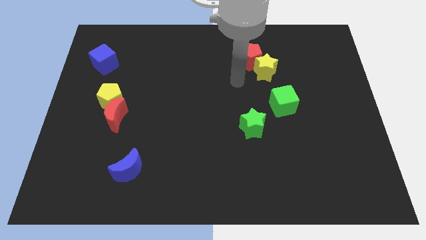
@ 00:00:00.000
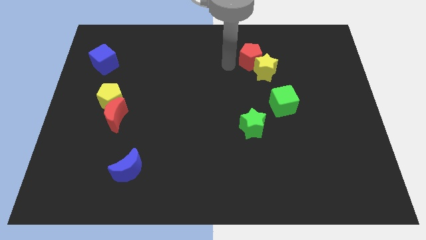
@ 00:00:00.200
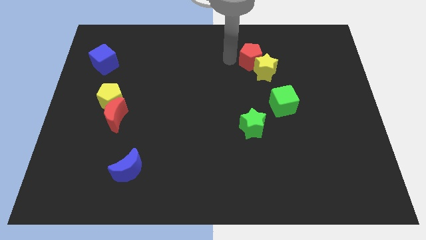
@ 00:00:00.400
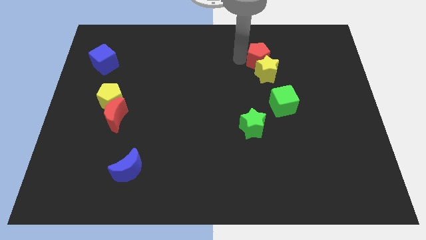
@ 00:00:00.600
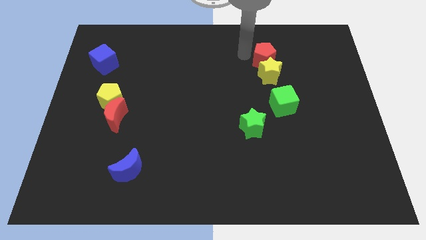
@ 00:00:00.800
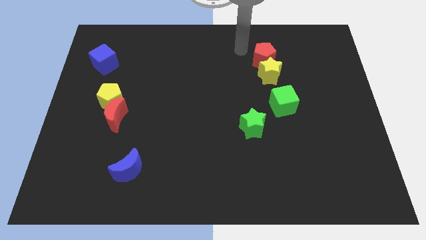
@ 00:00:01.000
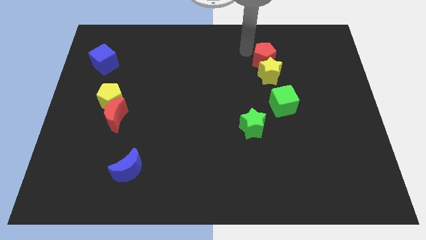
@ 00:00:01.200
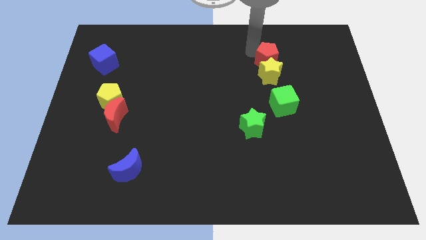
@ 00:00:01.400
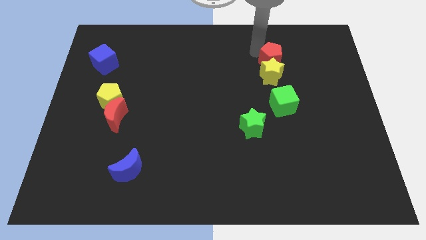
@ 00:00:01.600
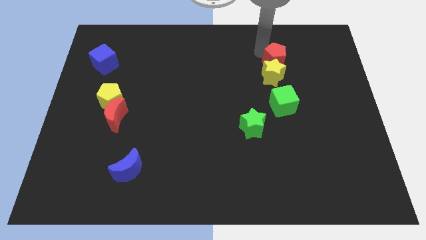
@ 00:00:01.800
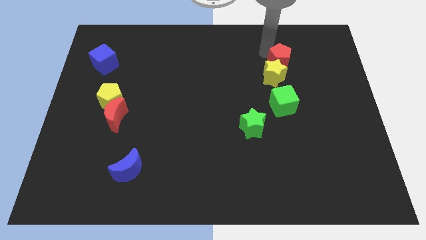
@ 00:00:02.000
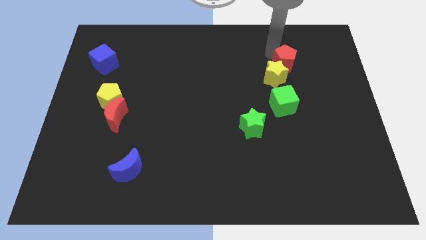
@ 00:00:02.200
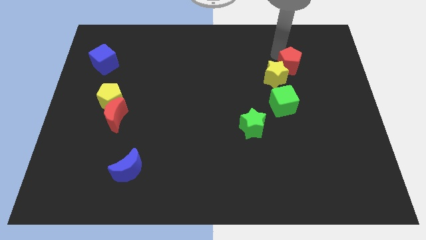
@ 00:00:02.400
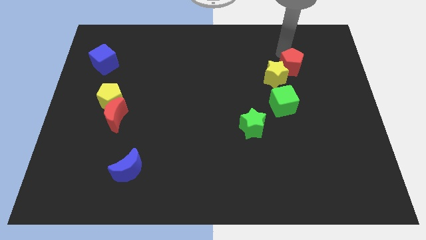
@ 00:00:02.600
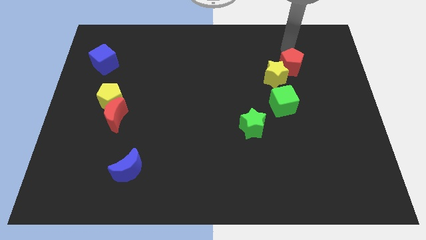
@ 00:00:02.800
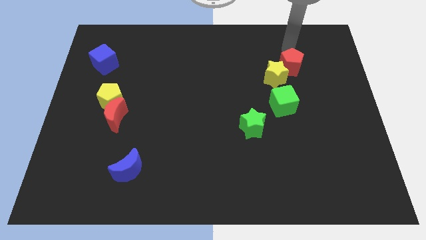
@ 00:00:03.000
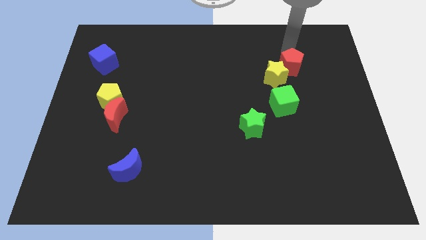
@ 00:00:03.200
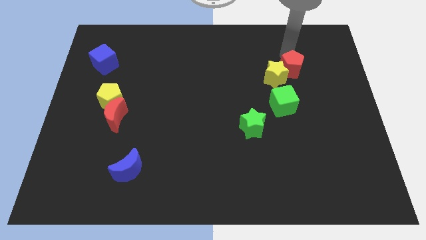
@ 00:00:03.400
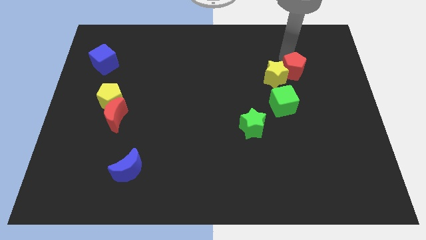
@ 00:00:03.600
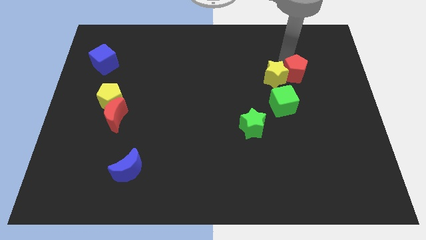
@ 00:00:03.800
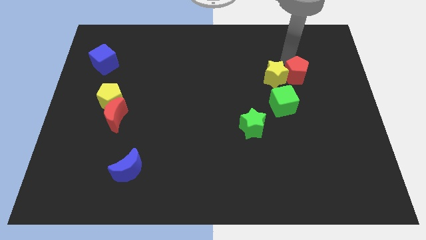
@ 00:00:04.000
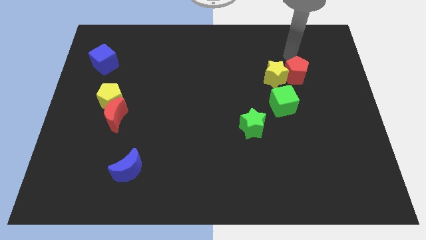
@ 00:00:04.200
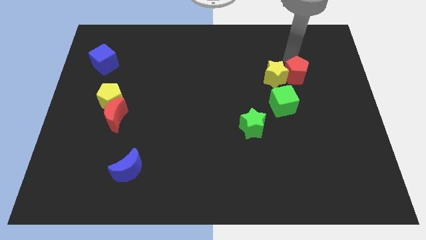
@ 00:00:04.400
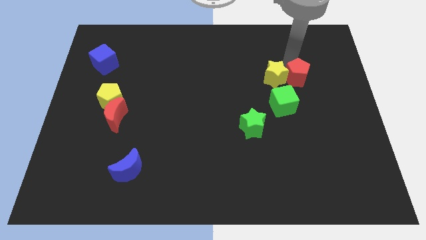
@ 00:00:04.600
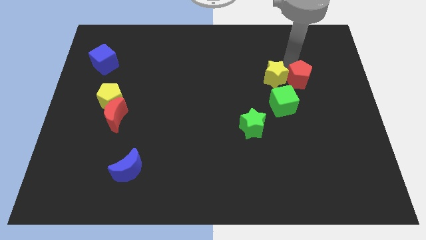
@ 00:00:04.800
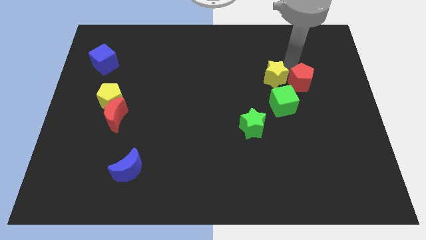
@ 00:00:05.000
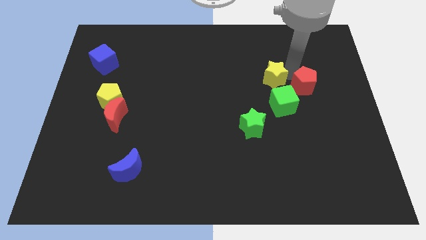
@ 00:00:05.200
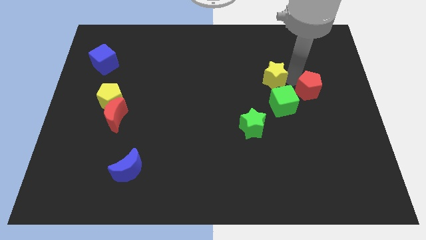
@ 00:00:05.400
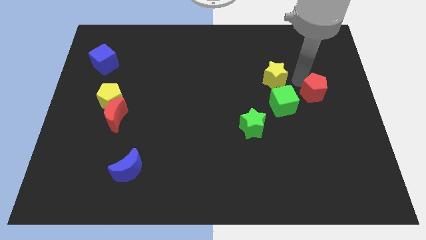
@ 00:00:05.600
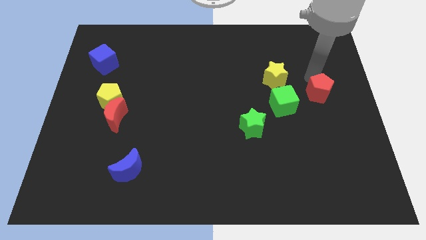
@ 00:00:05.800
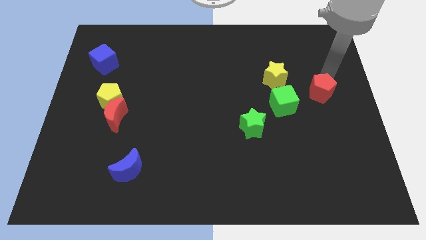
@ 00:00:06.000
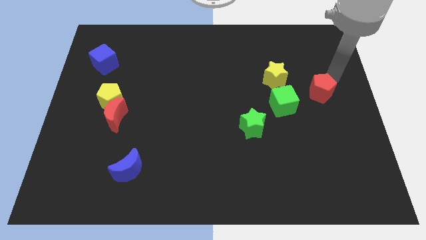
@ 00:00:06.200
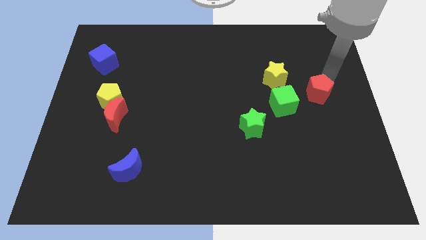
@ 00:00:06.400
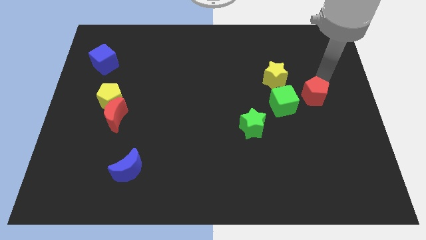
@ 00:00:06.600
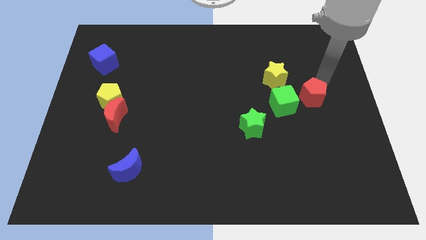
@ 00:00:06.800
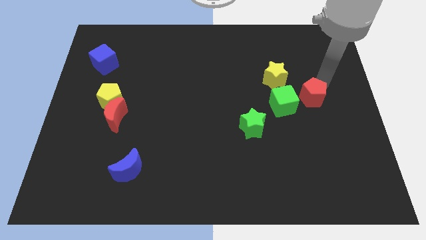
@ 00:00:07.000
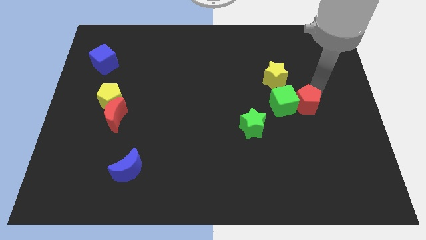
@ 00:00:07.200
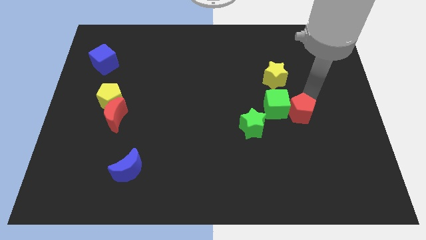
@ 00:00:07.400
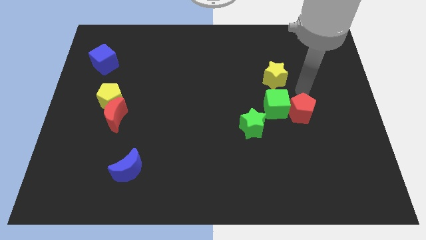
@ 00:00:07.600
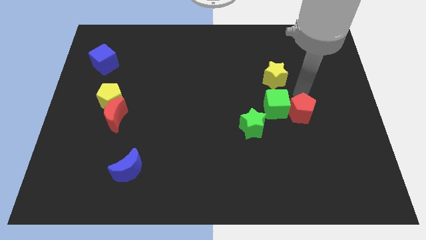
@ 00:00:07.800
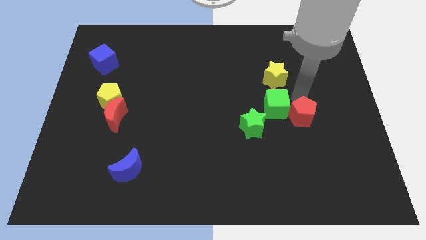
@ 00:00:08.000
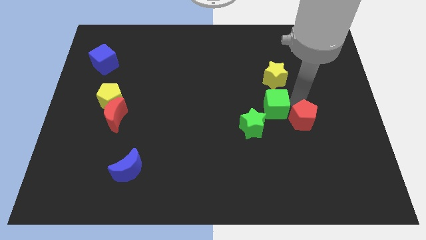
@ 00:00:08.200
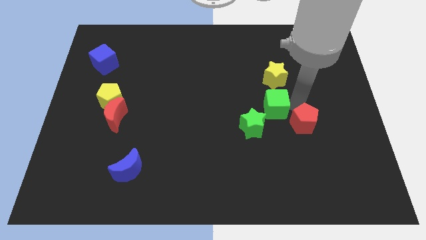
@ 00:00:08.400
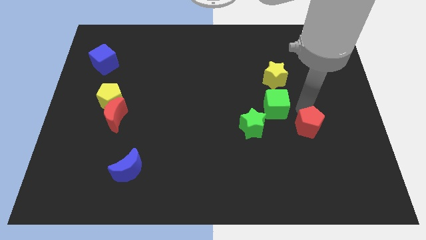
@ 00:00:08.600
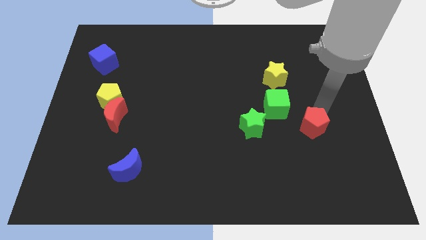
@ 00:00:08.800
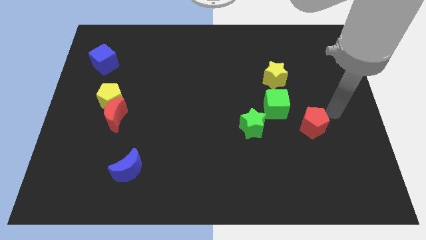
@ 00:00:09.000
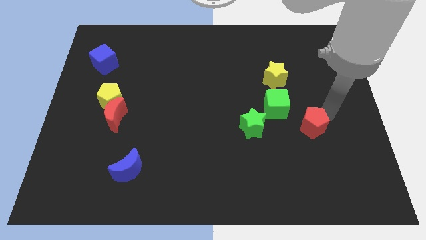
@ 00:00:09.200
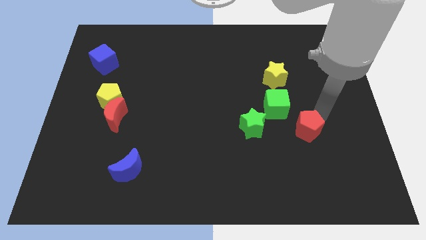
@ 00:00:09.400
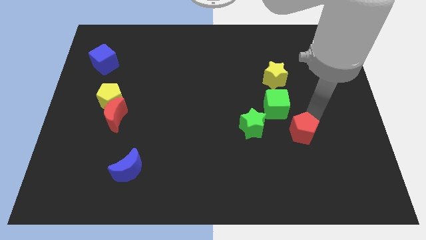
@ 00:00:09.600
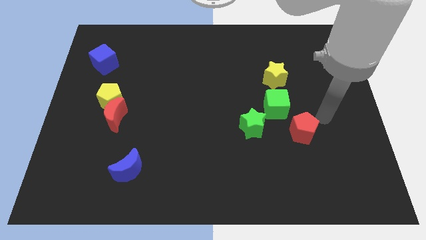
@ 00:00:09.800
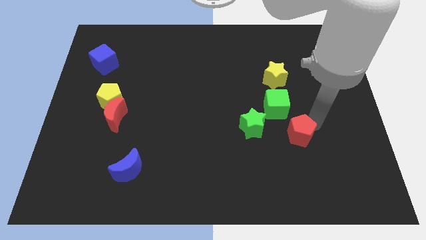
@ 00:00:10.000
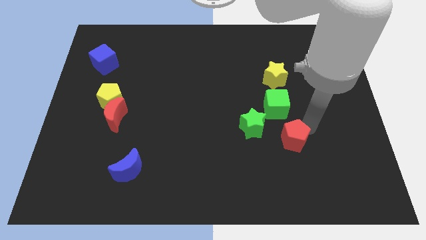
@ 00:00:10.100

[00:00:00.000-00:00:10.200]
push the red pentagon to the bottom right of the green star

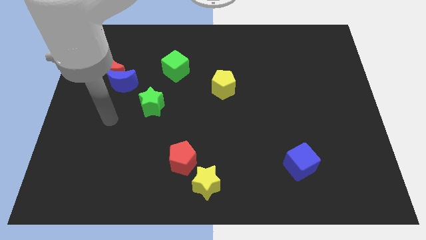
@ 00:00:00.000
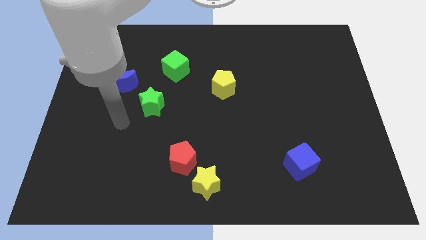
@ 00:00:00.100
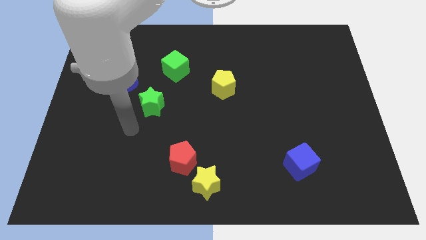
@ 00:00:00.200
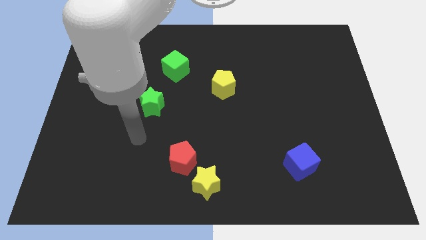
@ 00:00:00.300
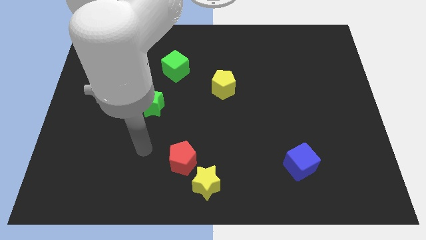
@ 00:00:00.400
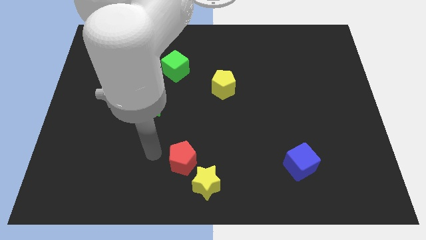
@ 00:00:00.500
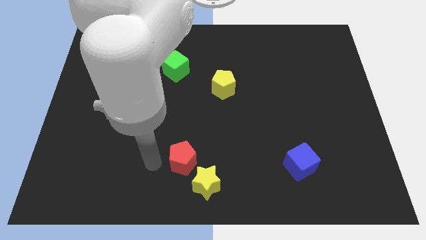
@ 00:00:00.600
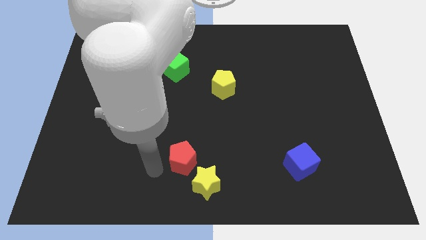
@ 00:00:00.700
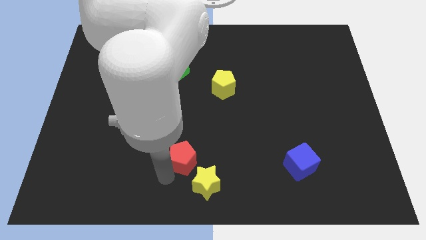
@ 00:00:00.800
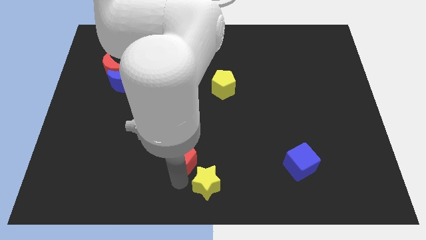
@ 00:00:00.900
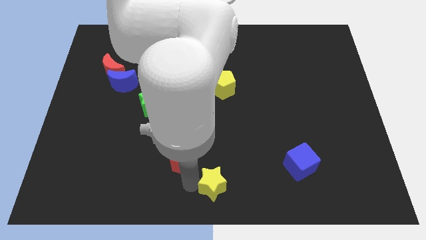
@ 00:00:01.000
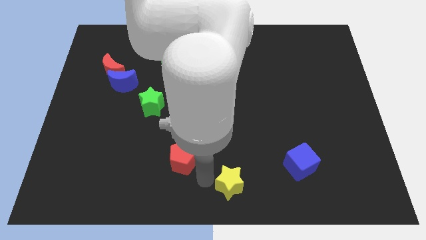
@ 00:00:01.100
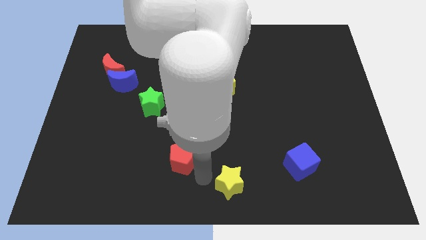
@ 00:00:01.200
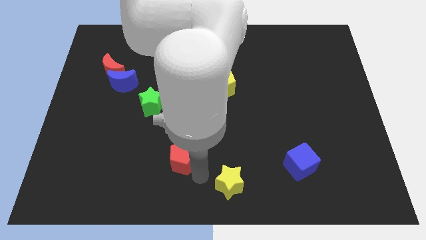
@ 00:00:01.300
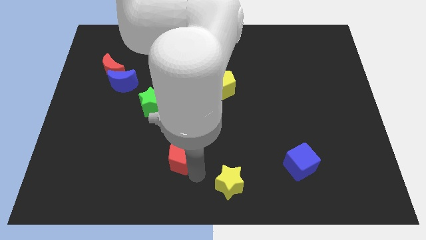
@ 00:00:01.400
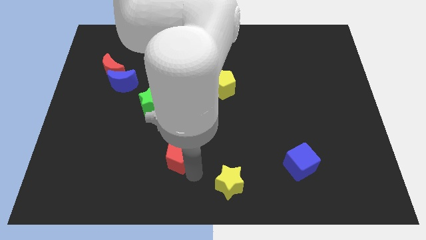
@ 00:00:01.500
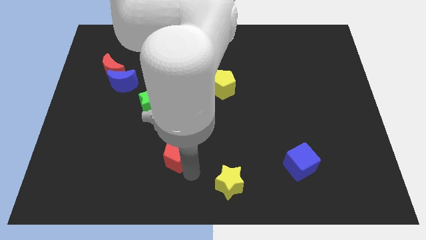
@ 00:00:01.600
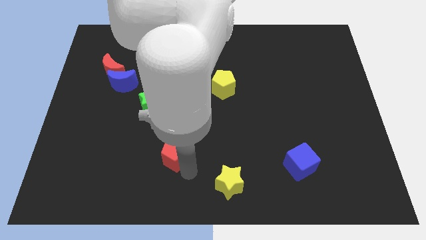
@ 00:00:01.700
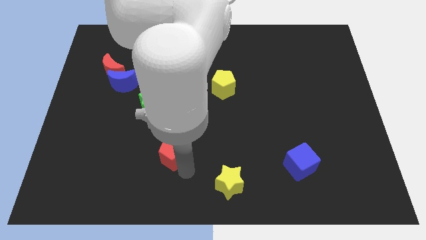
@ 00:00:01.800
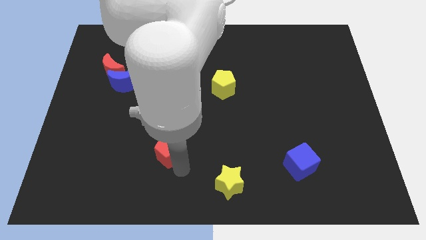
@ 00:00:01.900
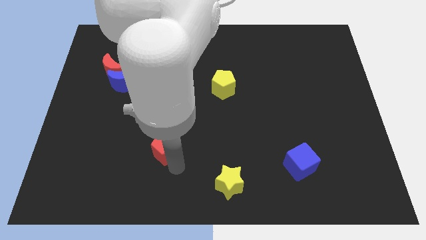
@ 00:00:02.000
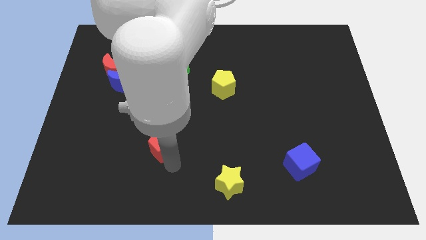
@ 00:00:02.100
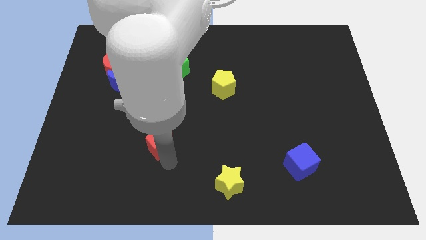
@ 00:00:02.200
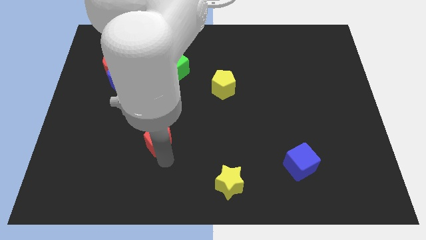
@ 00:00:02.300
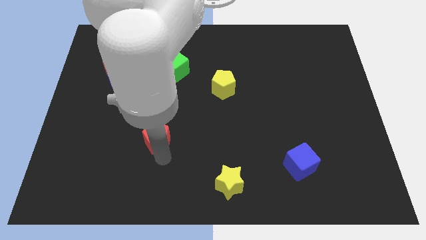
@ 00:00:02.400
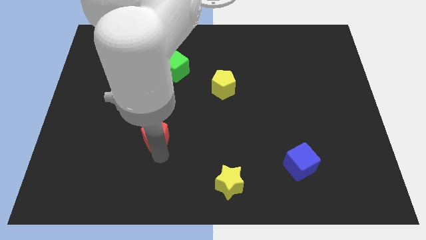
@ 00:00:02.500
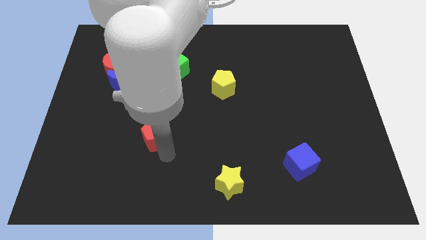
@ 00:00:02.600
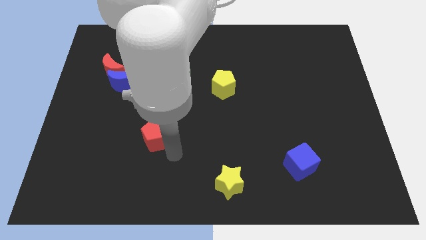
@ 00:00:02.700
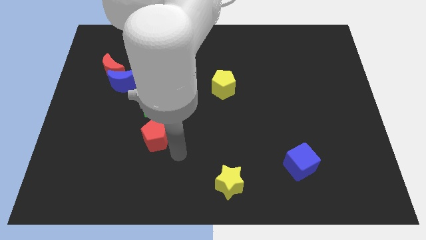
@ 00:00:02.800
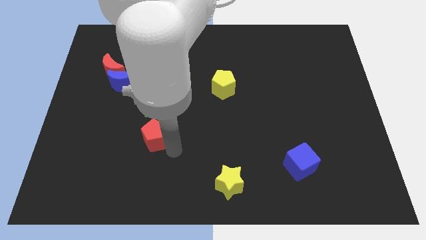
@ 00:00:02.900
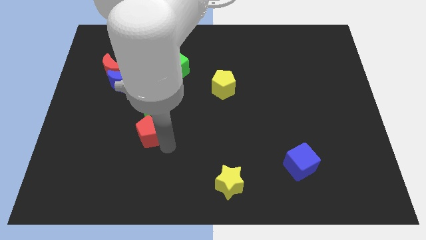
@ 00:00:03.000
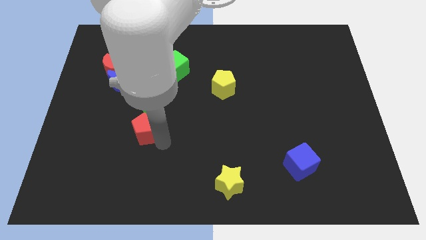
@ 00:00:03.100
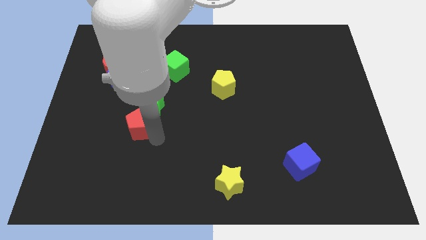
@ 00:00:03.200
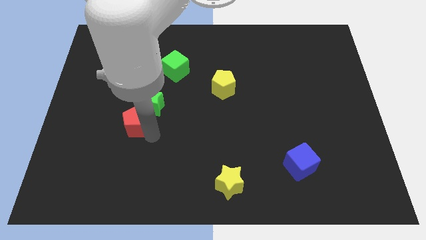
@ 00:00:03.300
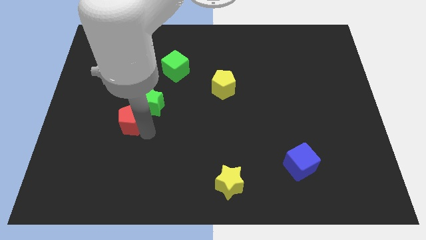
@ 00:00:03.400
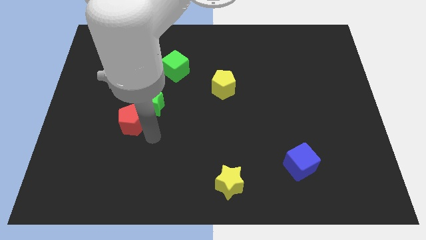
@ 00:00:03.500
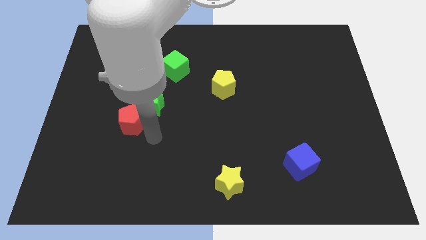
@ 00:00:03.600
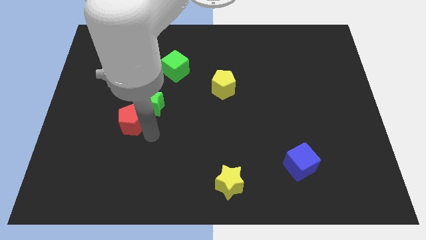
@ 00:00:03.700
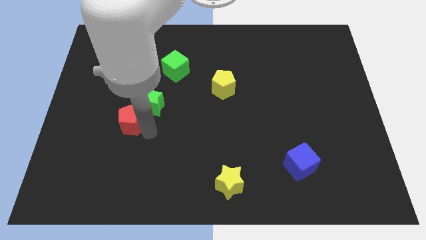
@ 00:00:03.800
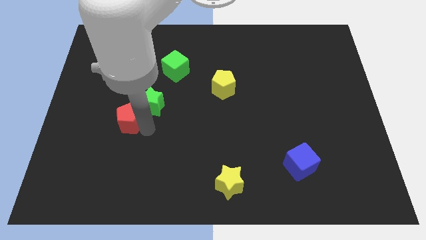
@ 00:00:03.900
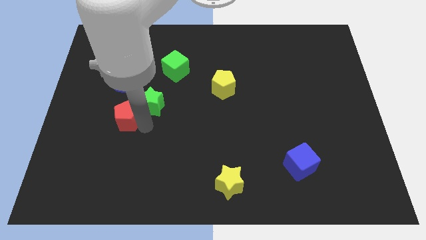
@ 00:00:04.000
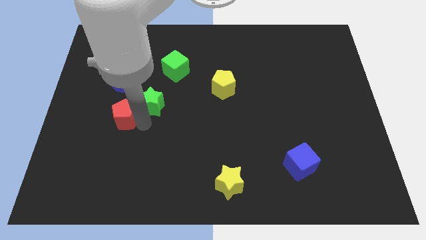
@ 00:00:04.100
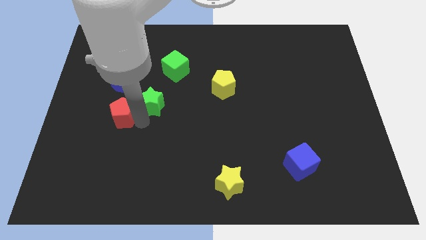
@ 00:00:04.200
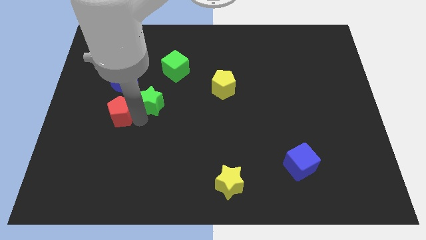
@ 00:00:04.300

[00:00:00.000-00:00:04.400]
slide the red pentagon to the bottom side of the red moon
